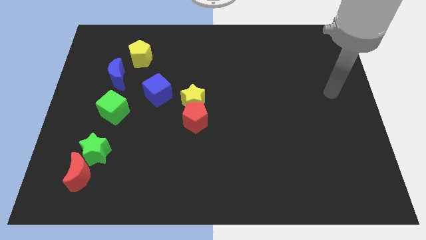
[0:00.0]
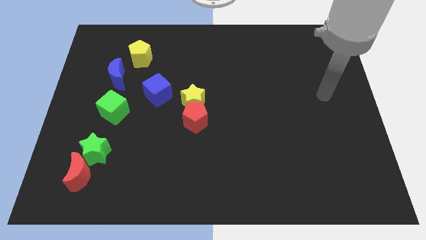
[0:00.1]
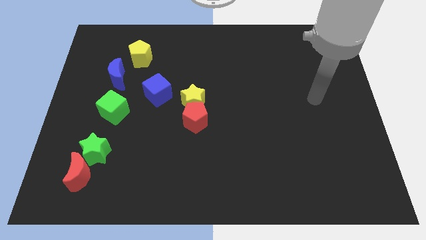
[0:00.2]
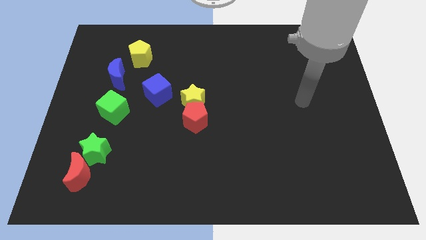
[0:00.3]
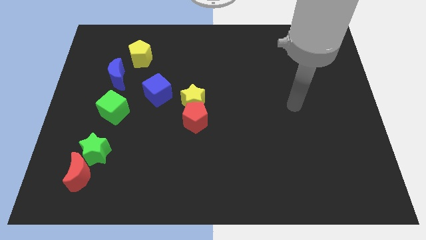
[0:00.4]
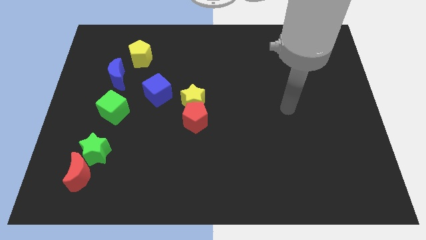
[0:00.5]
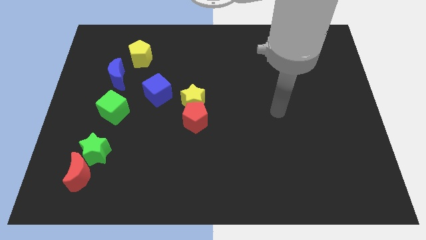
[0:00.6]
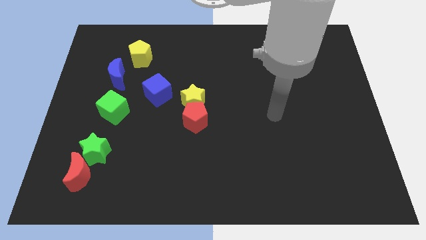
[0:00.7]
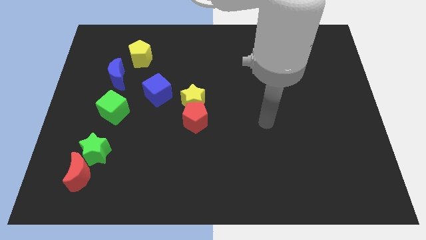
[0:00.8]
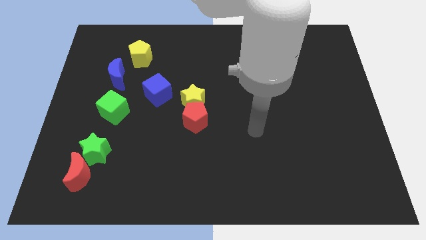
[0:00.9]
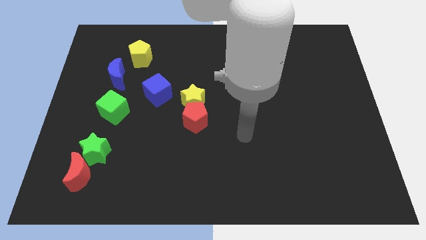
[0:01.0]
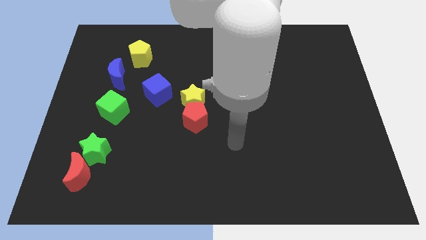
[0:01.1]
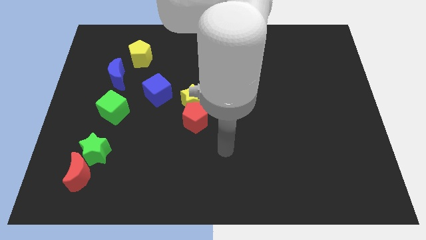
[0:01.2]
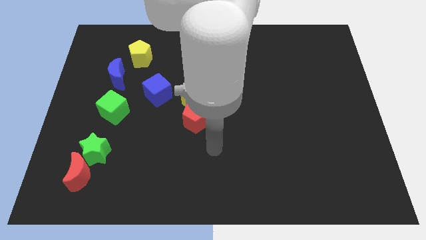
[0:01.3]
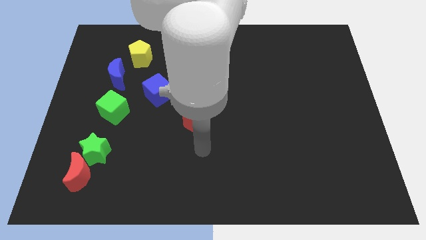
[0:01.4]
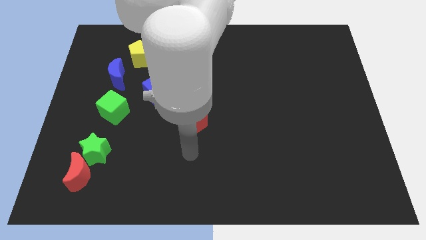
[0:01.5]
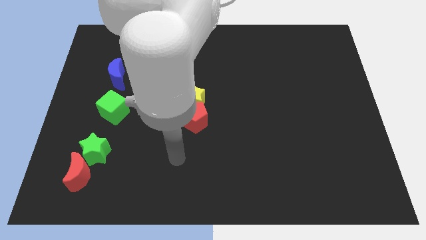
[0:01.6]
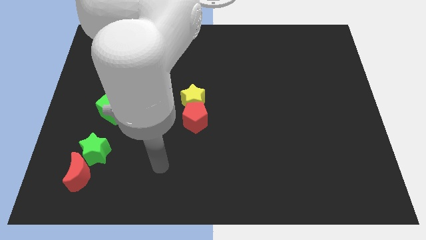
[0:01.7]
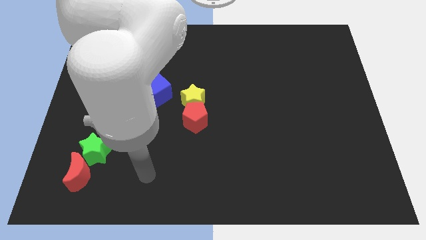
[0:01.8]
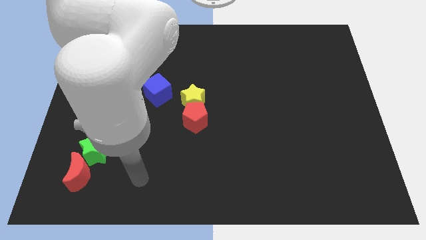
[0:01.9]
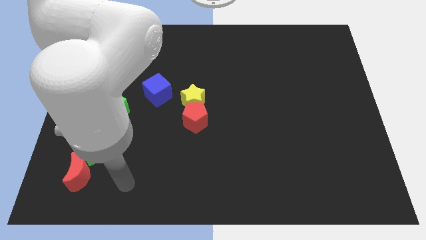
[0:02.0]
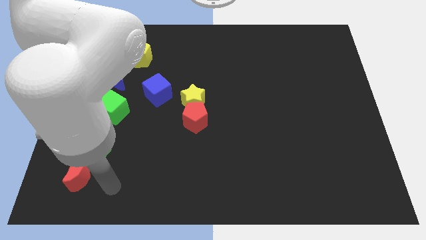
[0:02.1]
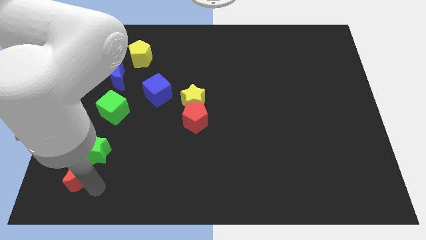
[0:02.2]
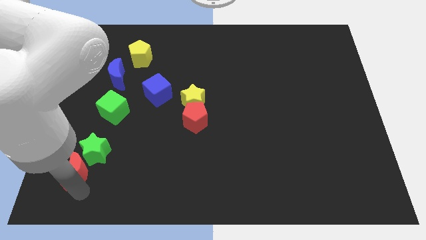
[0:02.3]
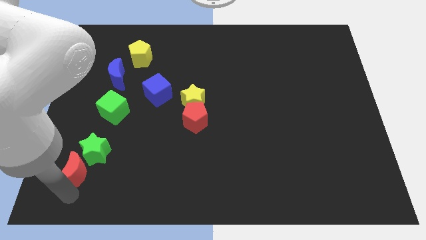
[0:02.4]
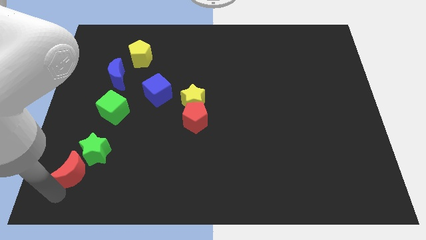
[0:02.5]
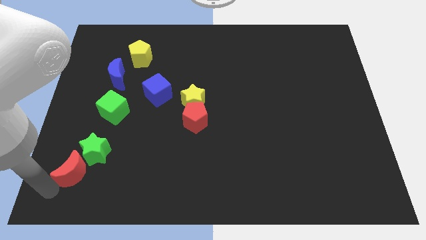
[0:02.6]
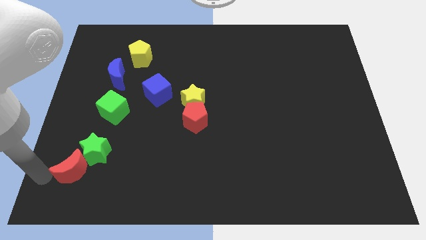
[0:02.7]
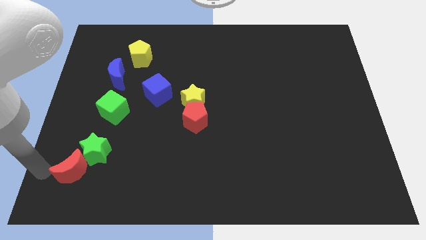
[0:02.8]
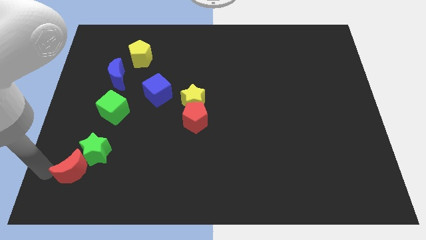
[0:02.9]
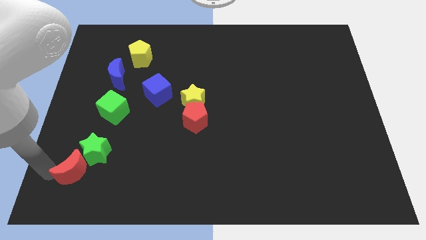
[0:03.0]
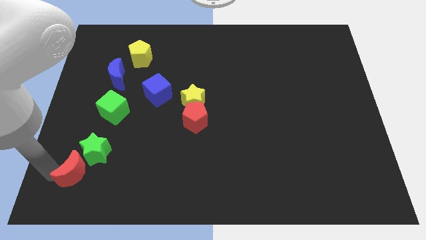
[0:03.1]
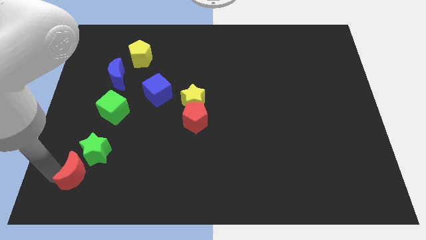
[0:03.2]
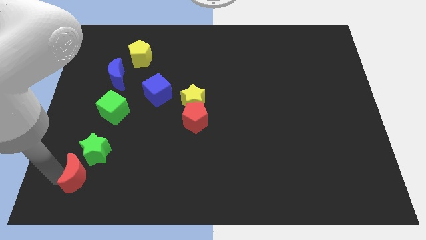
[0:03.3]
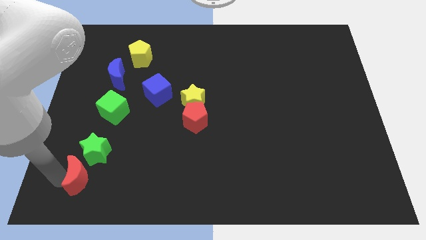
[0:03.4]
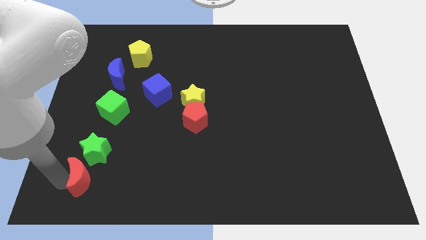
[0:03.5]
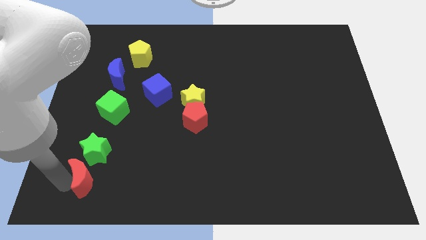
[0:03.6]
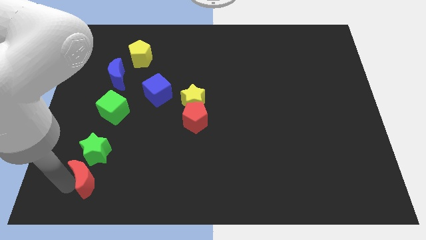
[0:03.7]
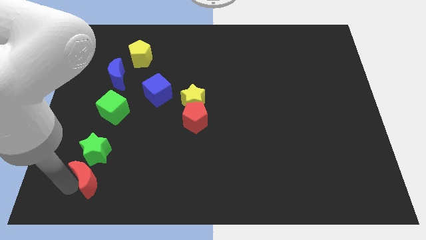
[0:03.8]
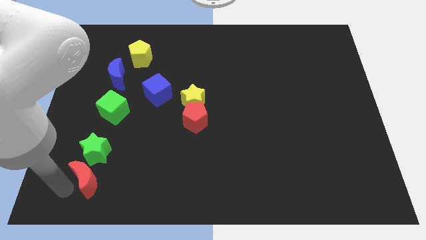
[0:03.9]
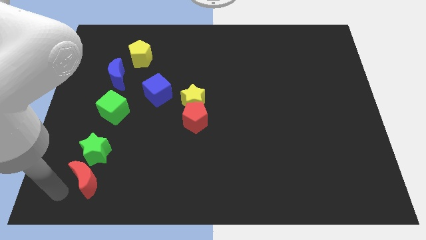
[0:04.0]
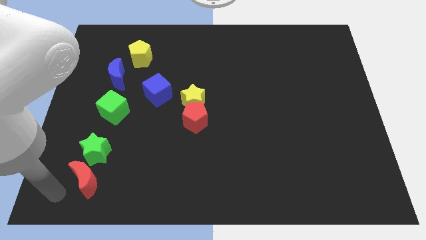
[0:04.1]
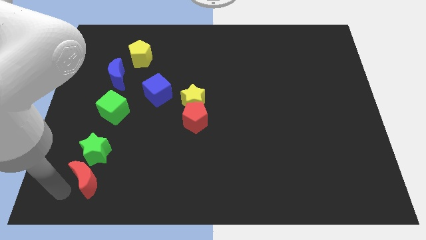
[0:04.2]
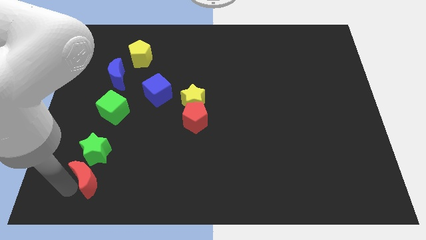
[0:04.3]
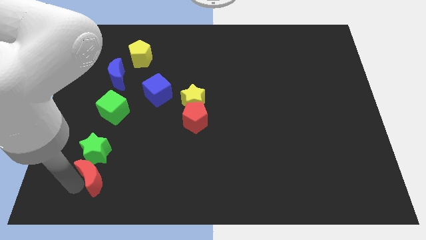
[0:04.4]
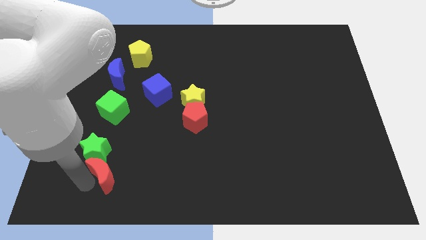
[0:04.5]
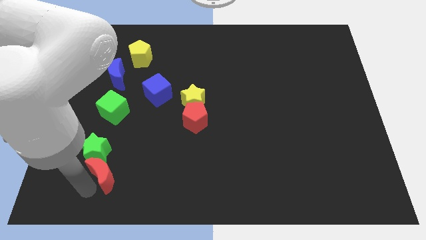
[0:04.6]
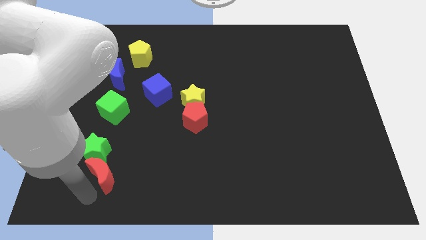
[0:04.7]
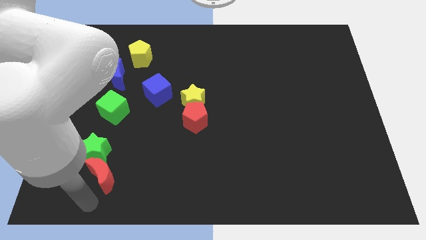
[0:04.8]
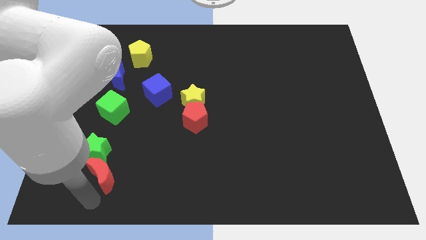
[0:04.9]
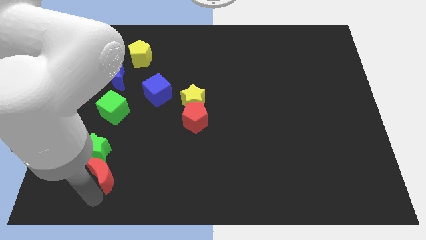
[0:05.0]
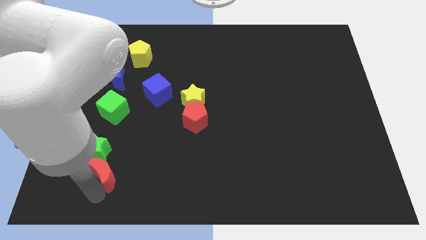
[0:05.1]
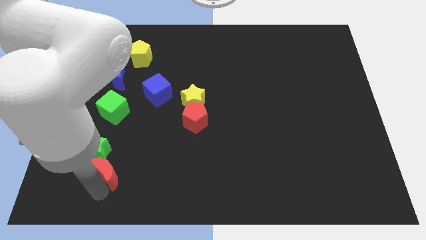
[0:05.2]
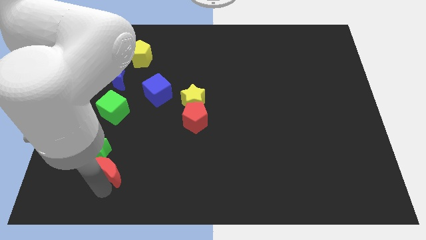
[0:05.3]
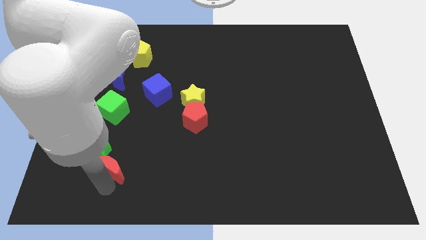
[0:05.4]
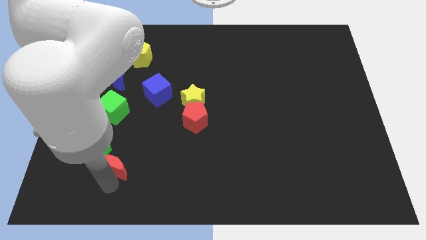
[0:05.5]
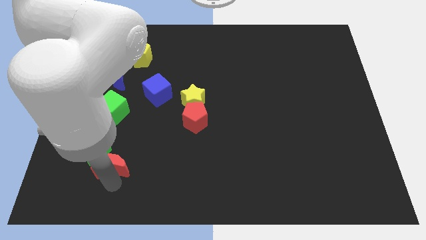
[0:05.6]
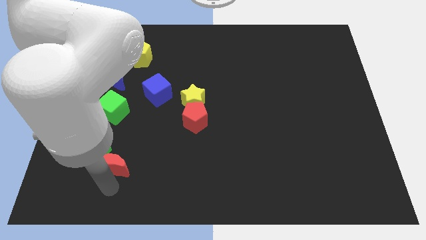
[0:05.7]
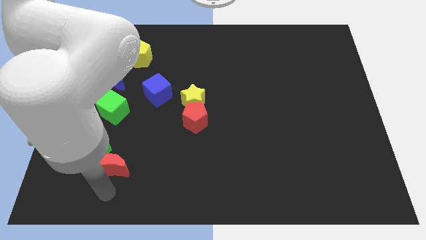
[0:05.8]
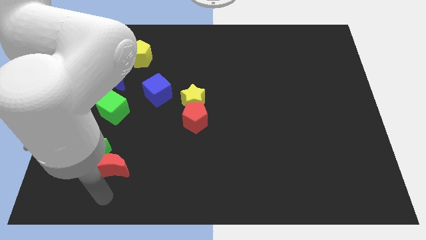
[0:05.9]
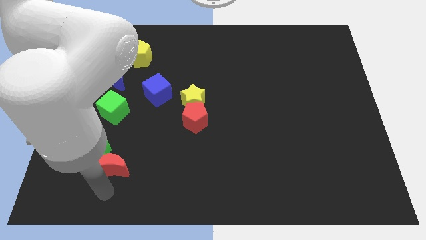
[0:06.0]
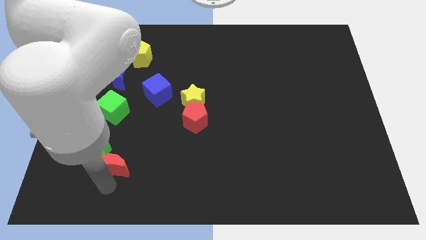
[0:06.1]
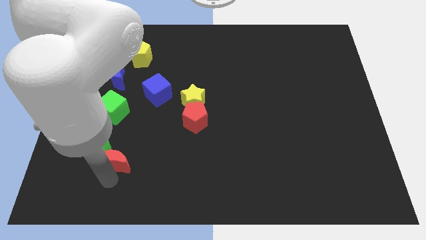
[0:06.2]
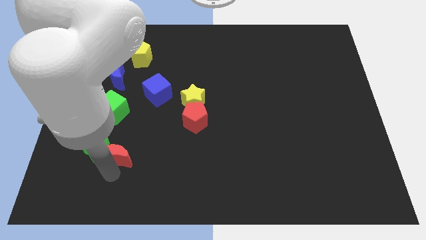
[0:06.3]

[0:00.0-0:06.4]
slightly slide the red moon upwards and to the right

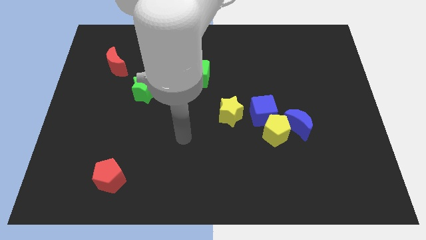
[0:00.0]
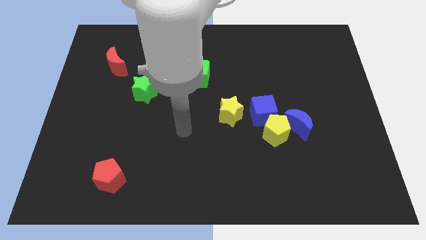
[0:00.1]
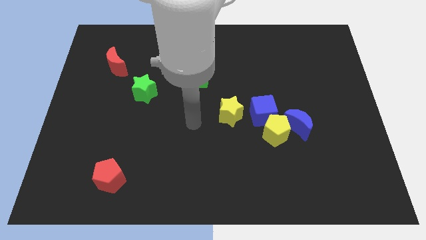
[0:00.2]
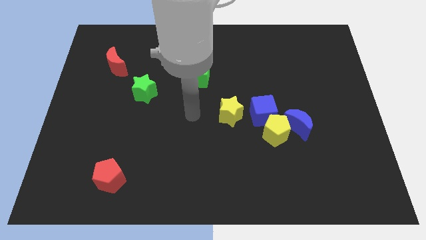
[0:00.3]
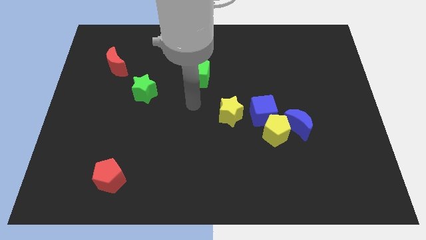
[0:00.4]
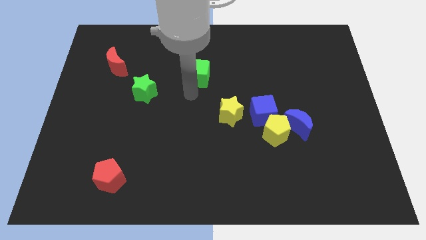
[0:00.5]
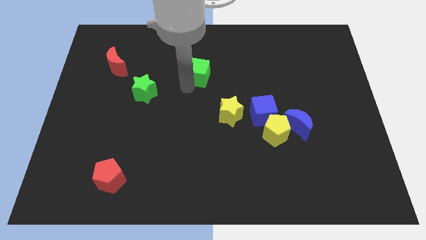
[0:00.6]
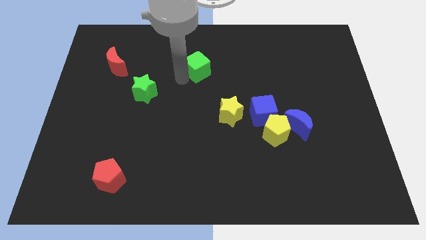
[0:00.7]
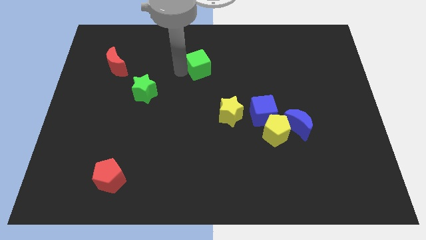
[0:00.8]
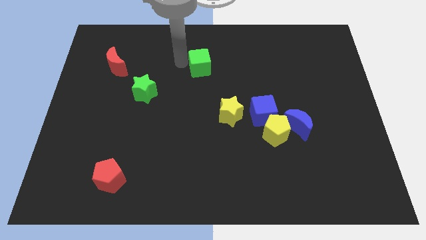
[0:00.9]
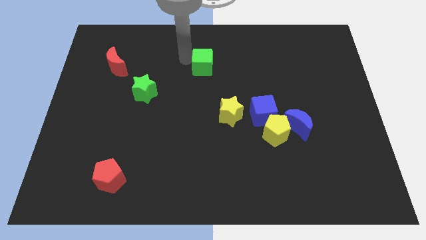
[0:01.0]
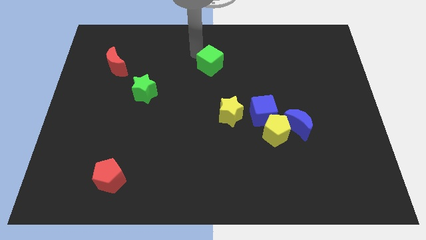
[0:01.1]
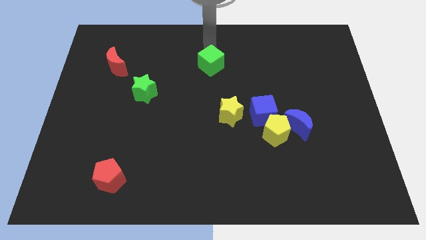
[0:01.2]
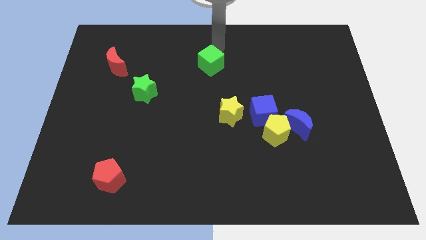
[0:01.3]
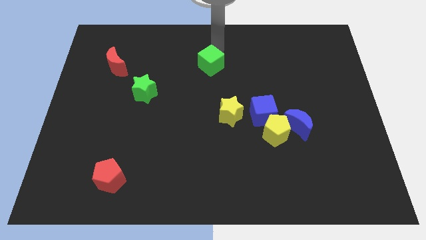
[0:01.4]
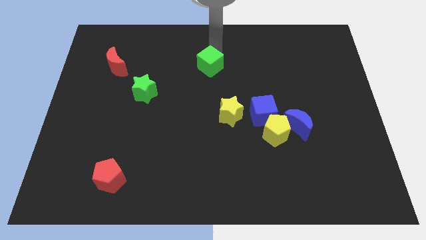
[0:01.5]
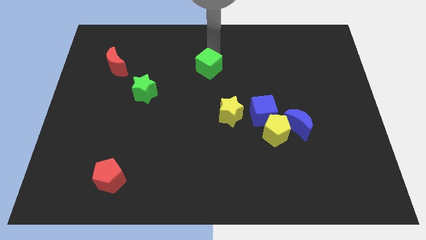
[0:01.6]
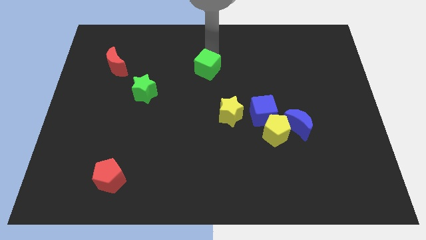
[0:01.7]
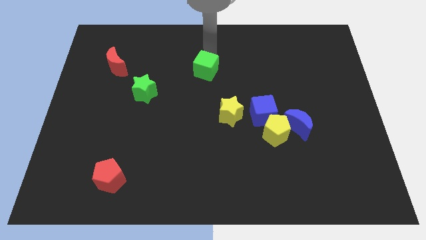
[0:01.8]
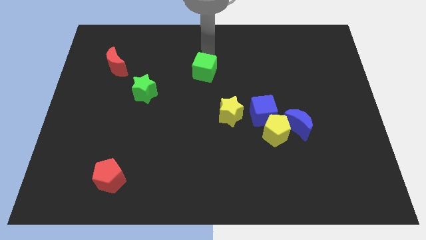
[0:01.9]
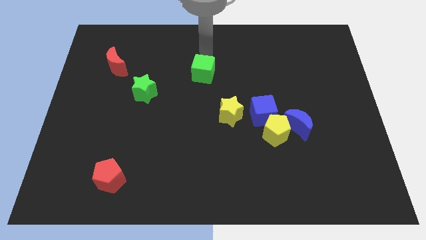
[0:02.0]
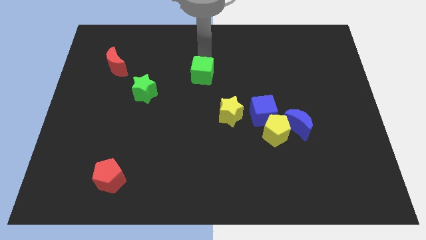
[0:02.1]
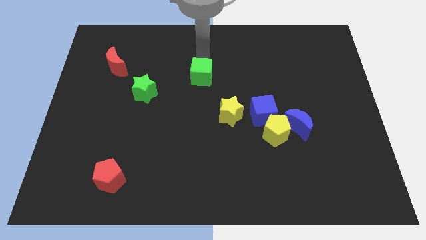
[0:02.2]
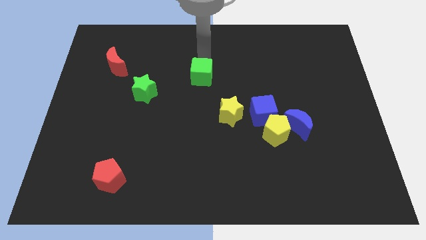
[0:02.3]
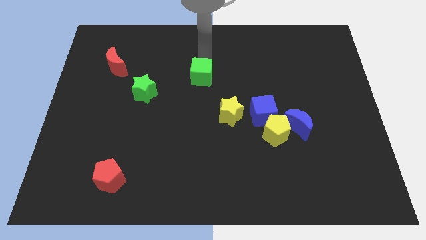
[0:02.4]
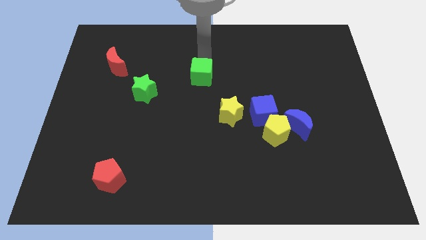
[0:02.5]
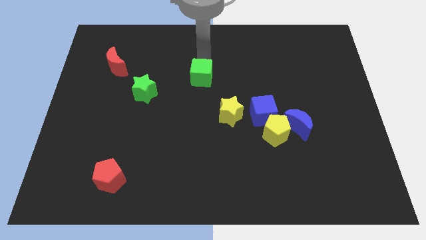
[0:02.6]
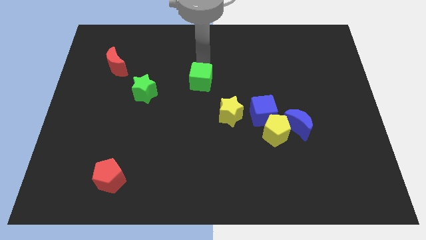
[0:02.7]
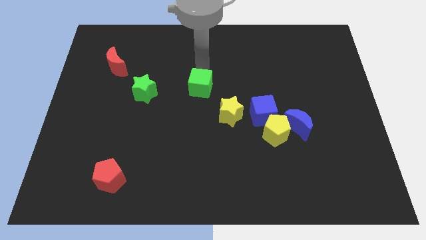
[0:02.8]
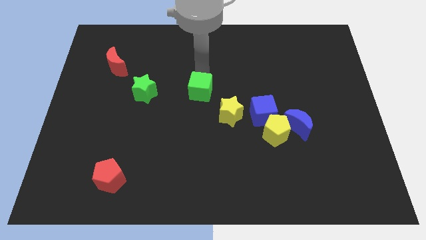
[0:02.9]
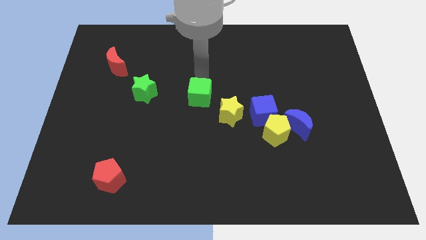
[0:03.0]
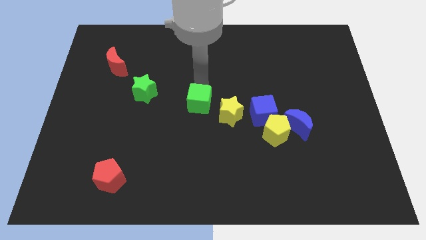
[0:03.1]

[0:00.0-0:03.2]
slide the green cube somewhat down
